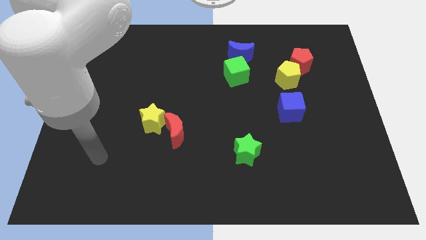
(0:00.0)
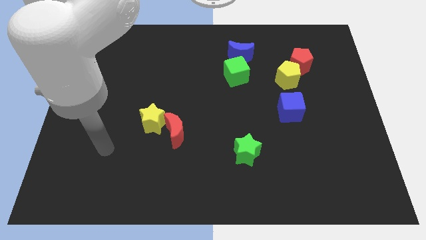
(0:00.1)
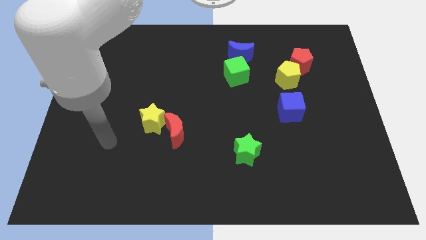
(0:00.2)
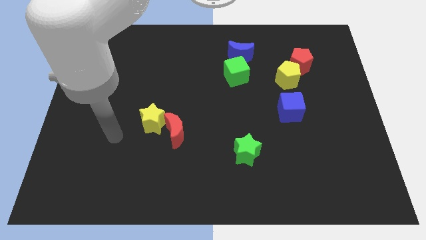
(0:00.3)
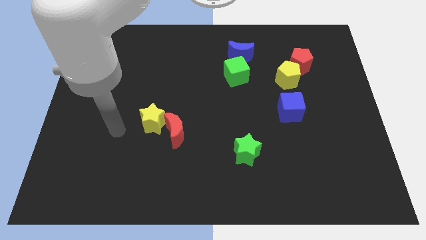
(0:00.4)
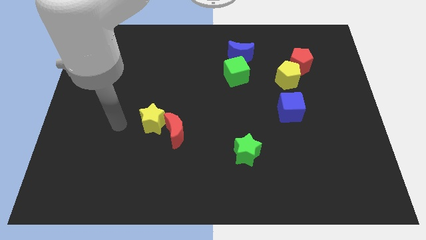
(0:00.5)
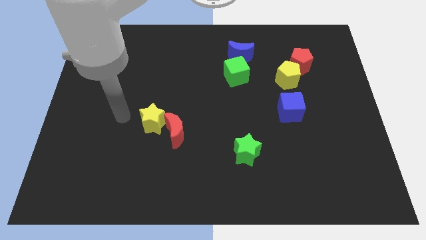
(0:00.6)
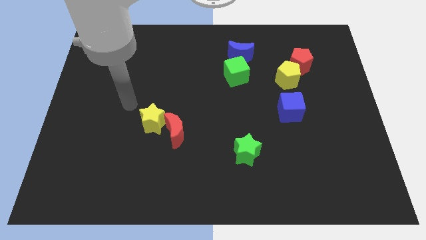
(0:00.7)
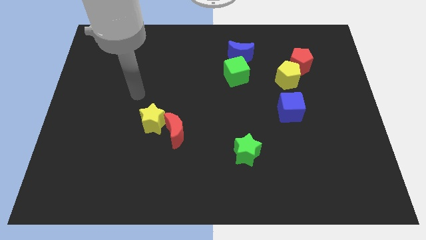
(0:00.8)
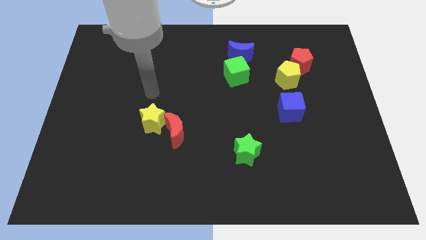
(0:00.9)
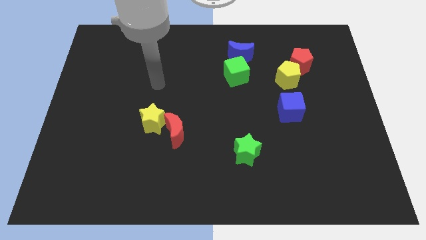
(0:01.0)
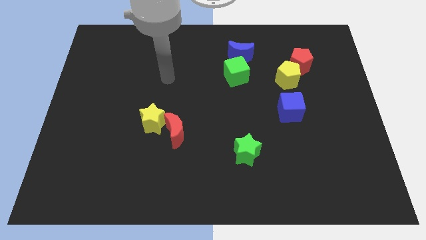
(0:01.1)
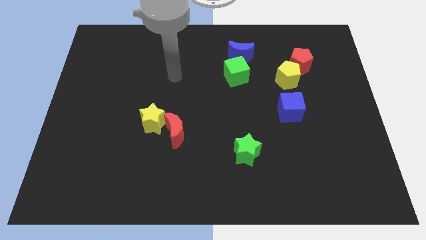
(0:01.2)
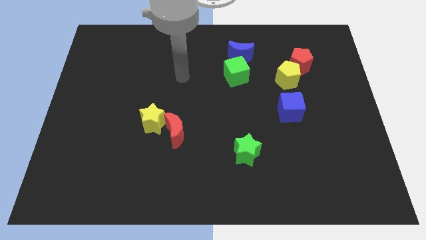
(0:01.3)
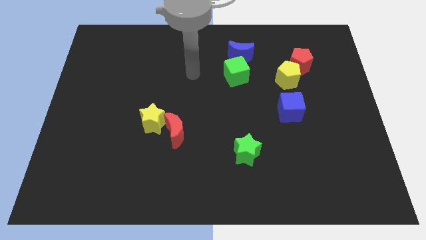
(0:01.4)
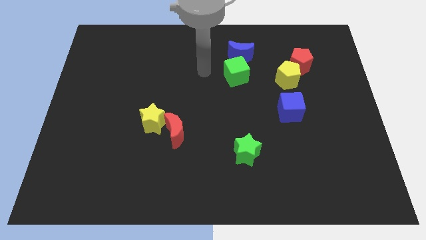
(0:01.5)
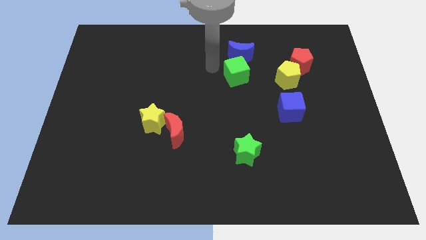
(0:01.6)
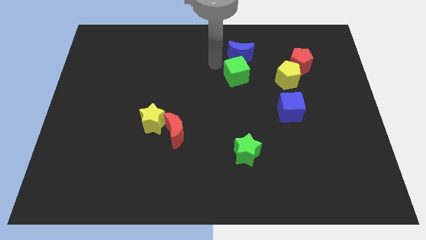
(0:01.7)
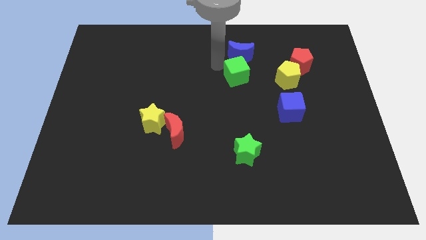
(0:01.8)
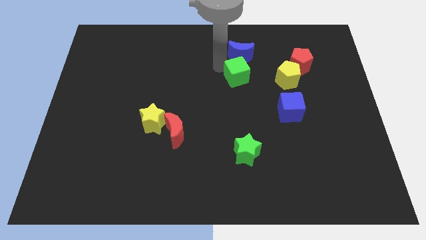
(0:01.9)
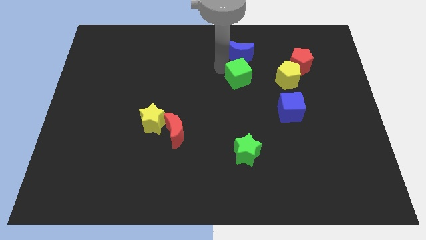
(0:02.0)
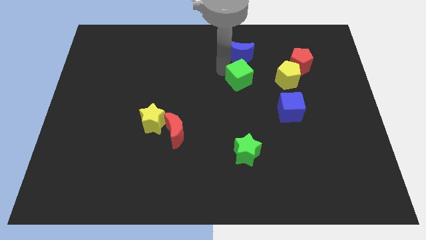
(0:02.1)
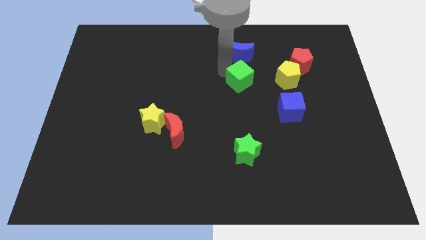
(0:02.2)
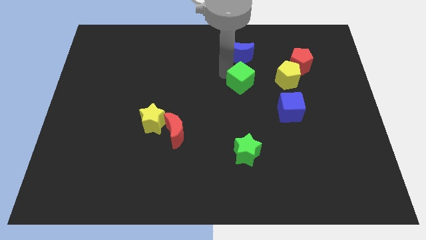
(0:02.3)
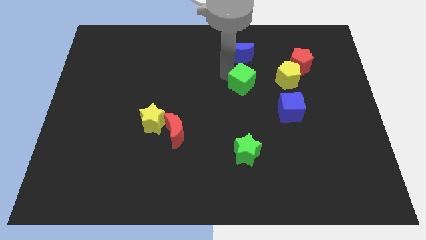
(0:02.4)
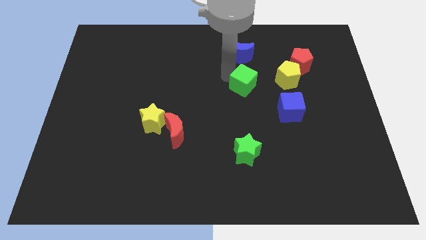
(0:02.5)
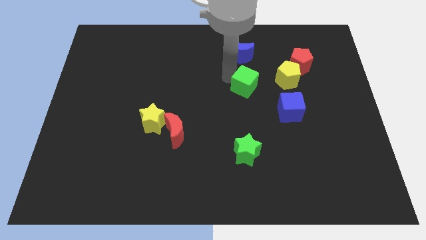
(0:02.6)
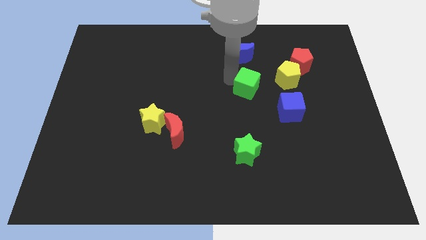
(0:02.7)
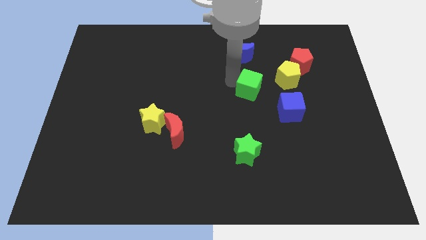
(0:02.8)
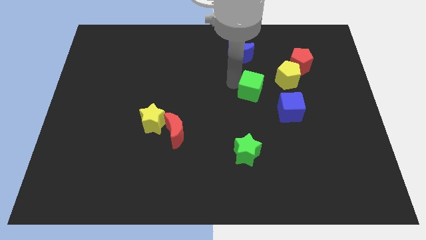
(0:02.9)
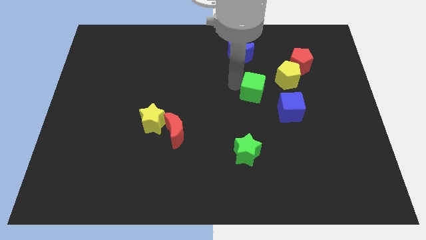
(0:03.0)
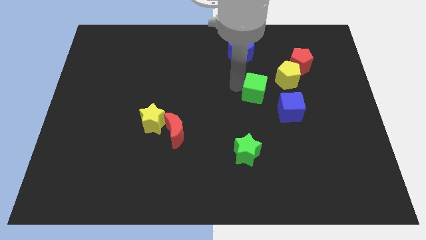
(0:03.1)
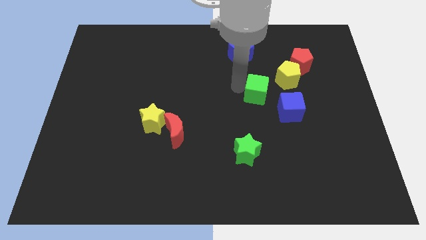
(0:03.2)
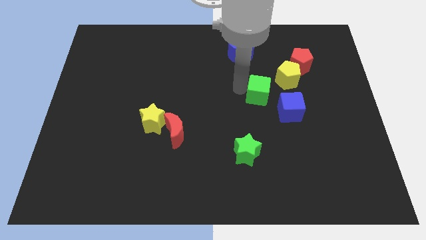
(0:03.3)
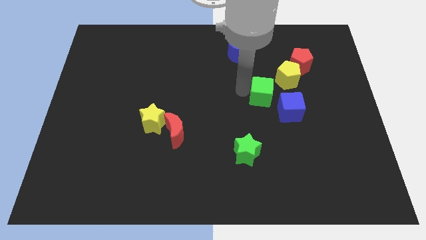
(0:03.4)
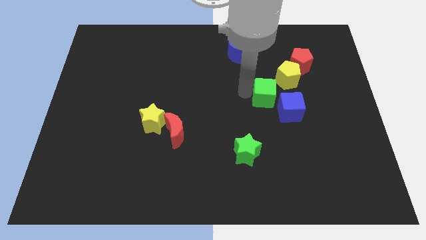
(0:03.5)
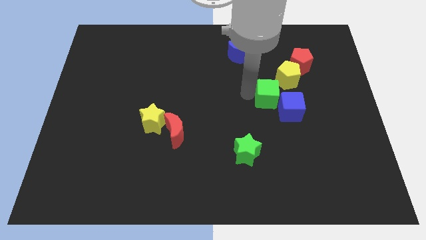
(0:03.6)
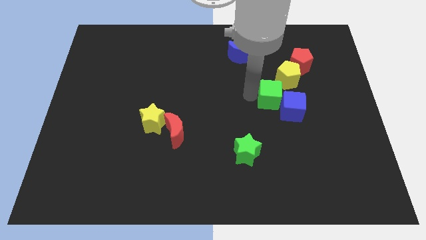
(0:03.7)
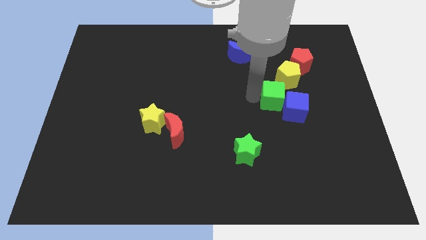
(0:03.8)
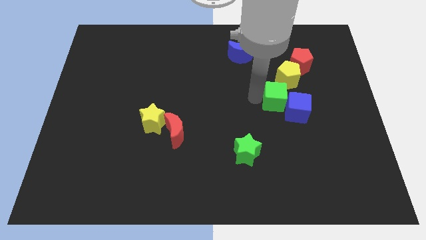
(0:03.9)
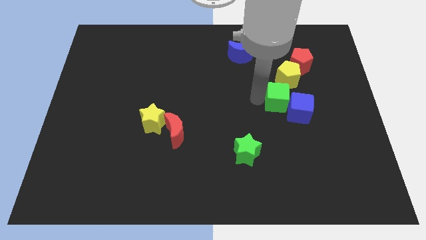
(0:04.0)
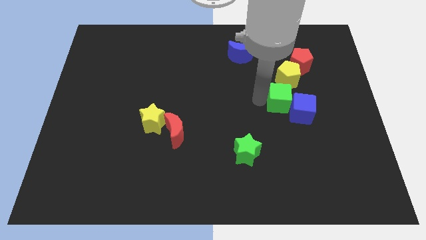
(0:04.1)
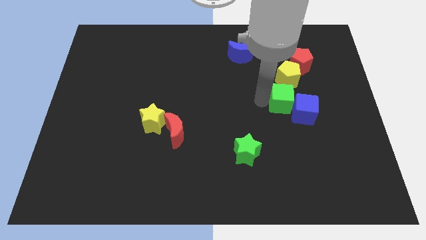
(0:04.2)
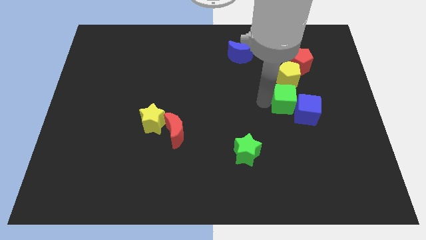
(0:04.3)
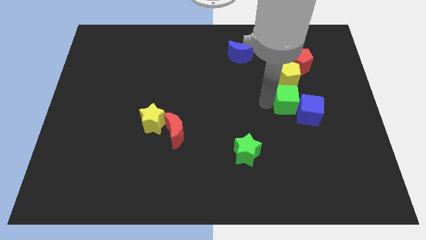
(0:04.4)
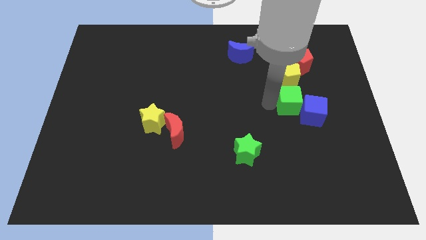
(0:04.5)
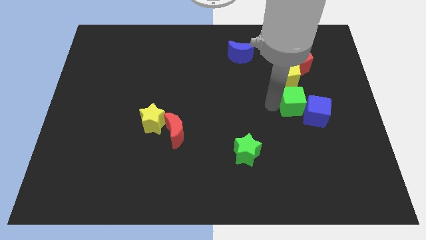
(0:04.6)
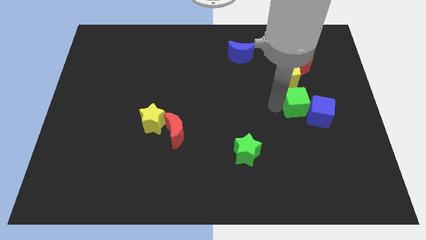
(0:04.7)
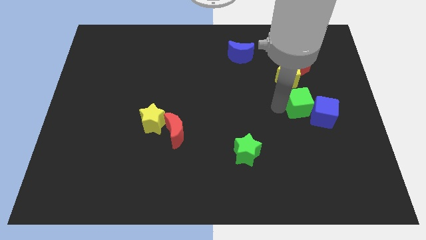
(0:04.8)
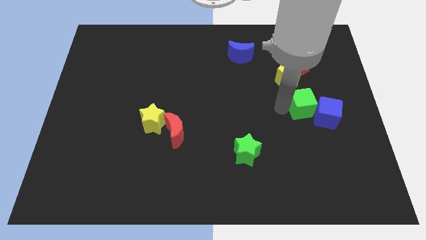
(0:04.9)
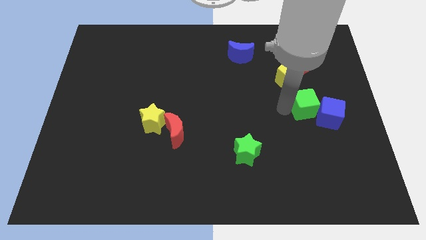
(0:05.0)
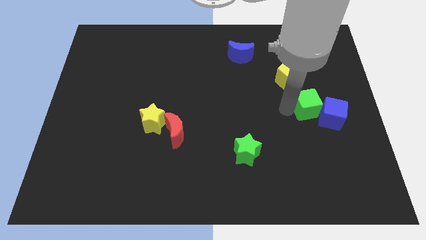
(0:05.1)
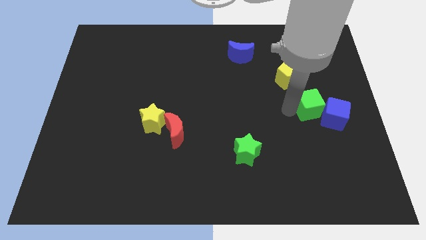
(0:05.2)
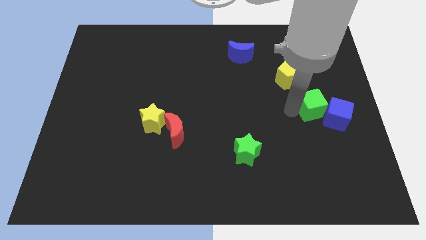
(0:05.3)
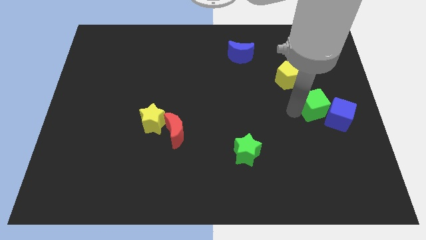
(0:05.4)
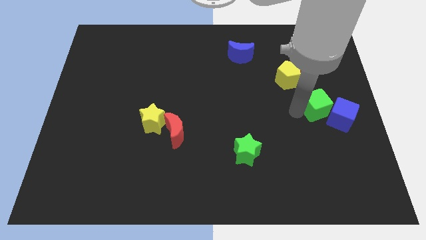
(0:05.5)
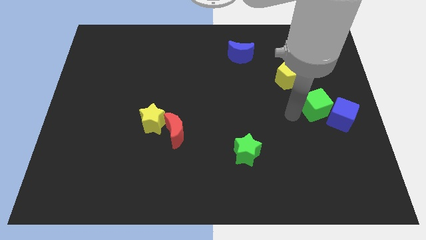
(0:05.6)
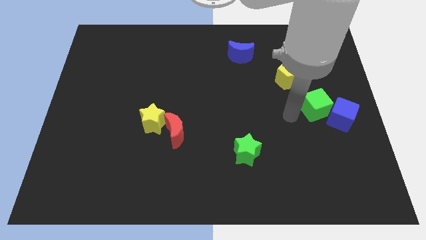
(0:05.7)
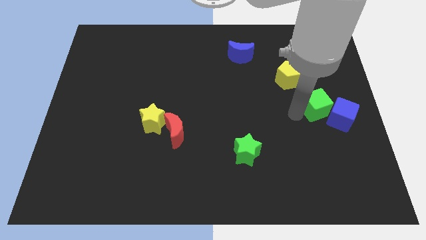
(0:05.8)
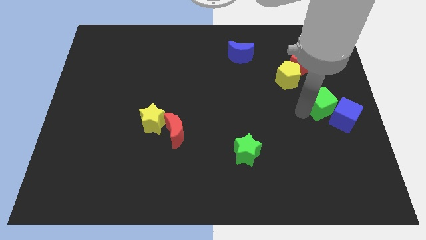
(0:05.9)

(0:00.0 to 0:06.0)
slide the green cube to the right side
